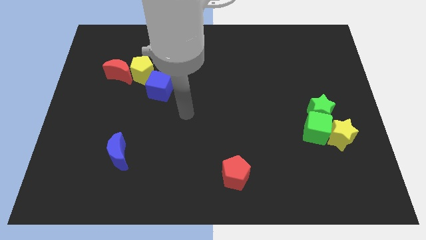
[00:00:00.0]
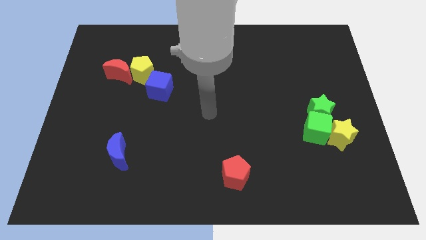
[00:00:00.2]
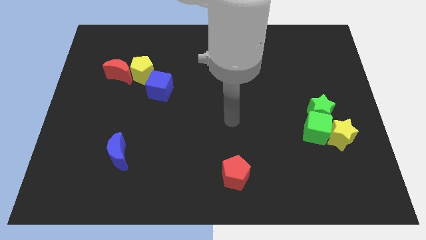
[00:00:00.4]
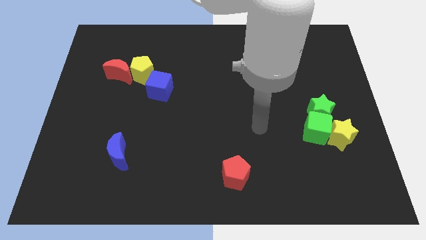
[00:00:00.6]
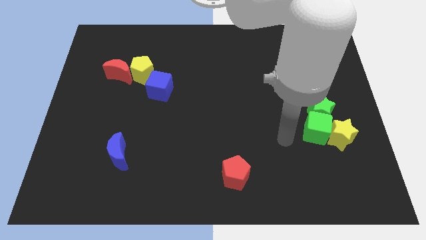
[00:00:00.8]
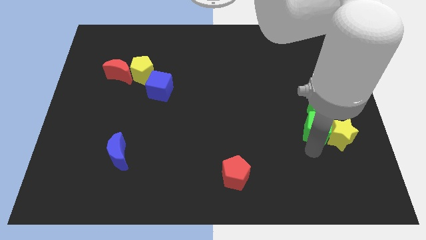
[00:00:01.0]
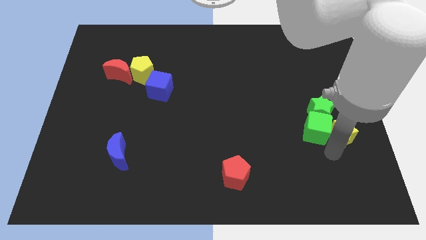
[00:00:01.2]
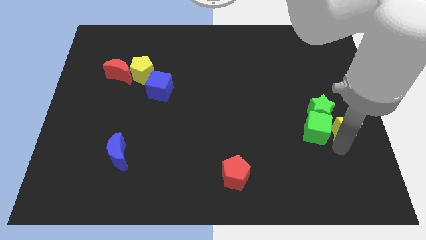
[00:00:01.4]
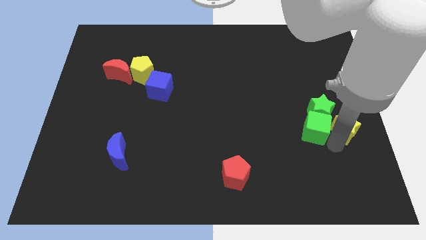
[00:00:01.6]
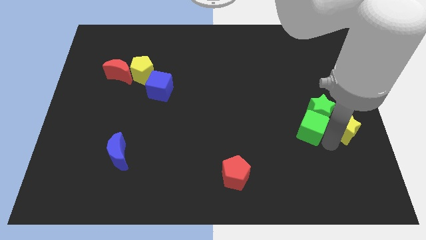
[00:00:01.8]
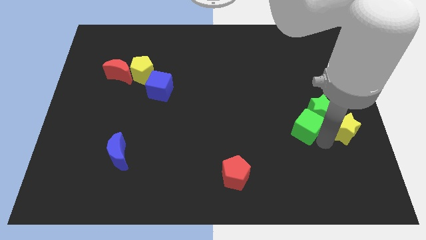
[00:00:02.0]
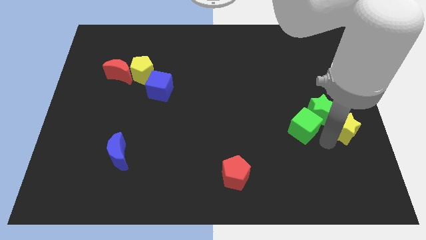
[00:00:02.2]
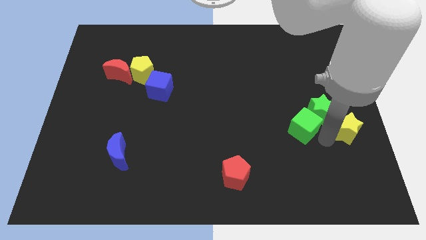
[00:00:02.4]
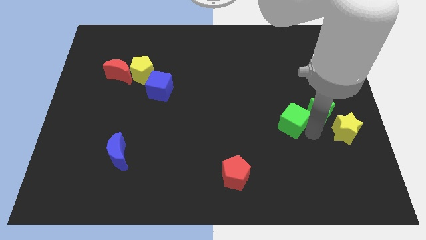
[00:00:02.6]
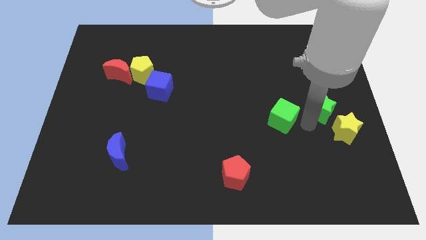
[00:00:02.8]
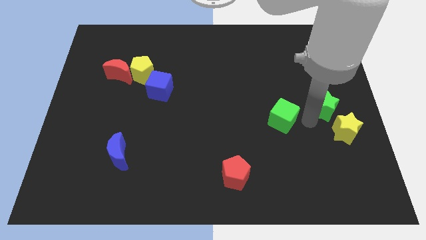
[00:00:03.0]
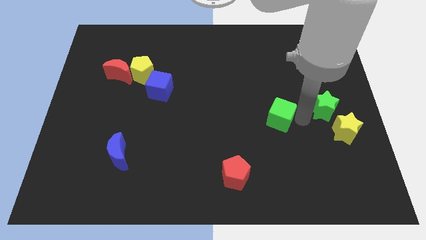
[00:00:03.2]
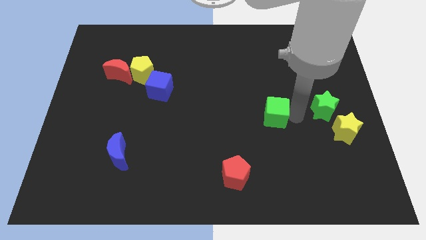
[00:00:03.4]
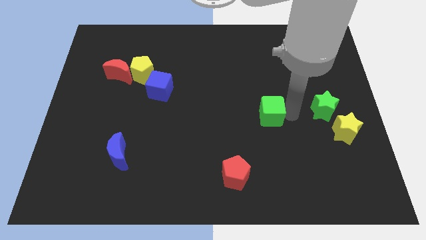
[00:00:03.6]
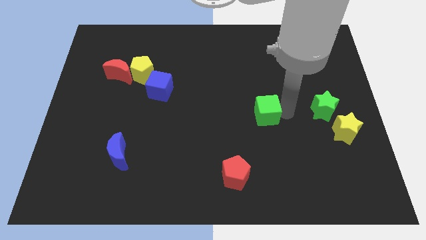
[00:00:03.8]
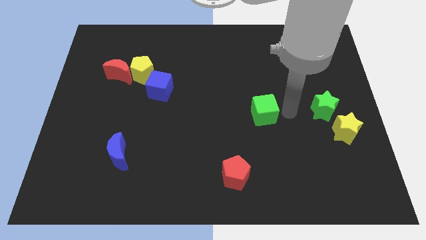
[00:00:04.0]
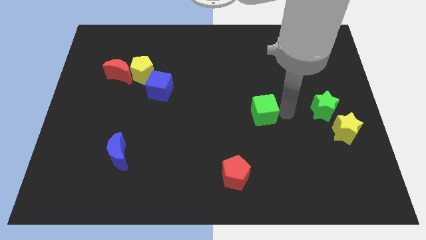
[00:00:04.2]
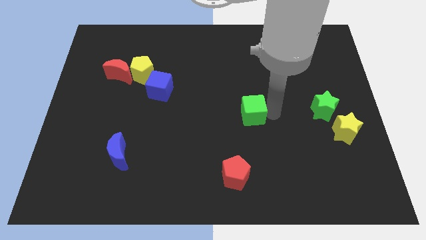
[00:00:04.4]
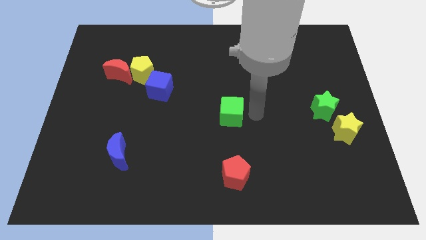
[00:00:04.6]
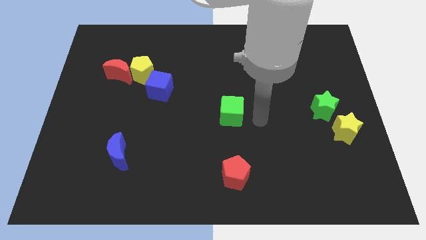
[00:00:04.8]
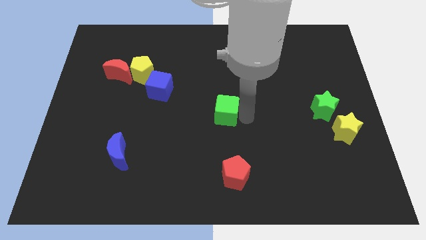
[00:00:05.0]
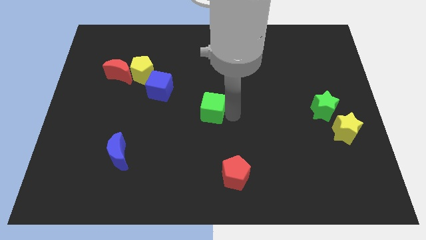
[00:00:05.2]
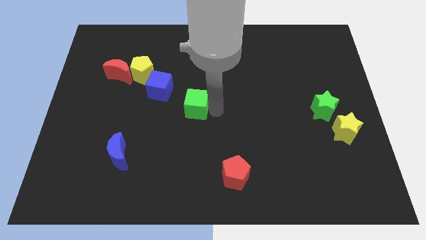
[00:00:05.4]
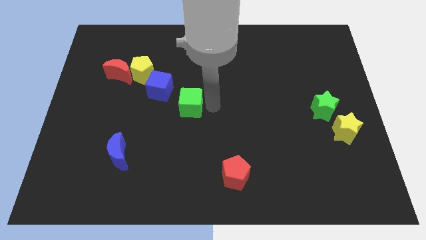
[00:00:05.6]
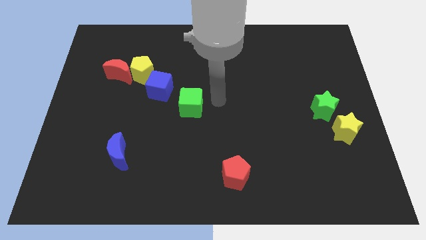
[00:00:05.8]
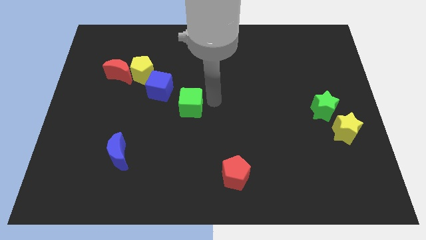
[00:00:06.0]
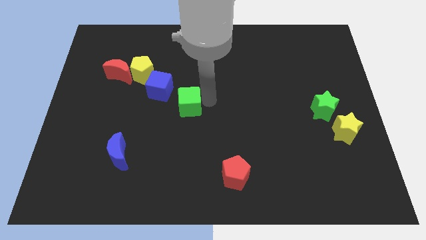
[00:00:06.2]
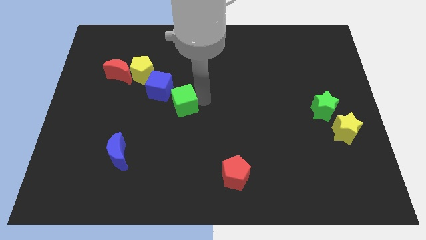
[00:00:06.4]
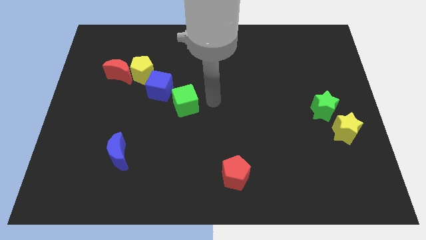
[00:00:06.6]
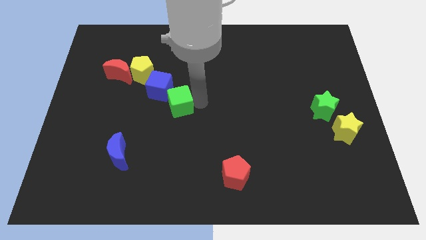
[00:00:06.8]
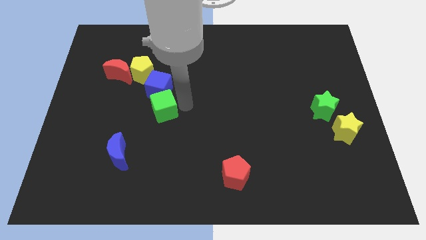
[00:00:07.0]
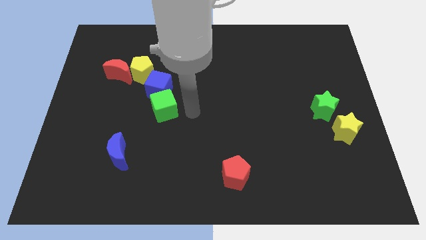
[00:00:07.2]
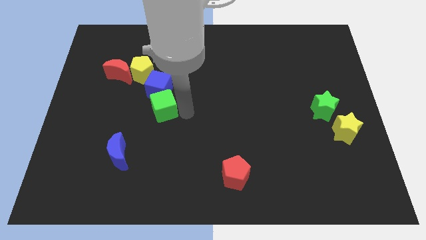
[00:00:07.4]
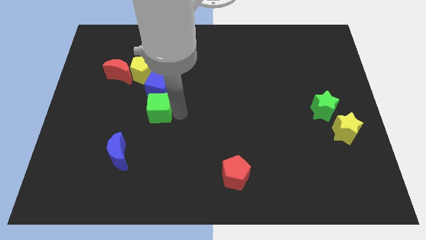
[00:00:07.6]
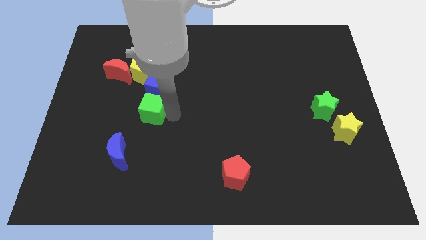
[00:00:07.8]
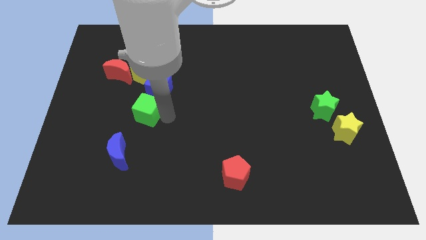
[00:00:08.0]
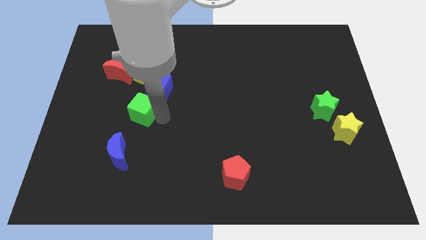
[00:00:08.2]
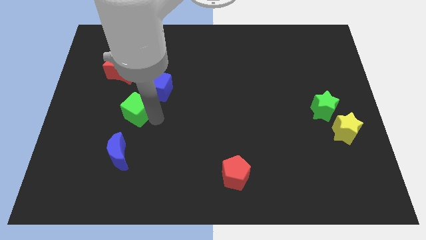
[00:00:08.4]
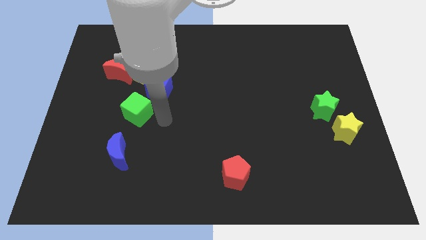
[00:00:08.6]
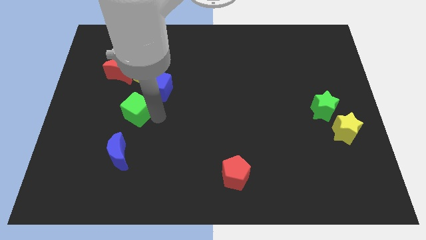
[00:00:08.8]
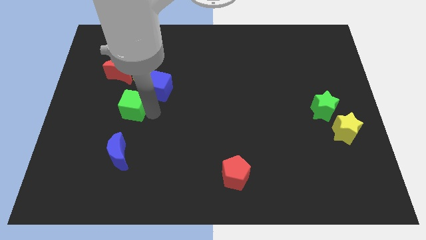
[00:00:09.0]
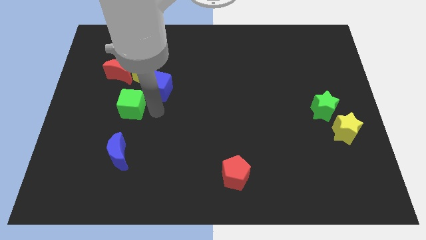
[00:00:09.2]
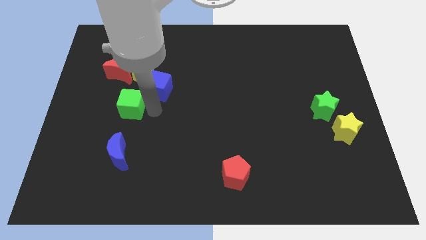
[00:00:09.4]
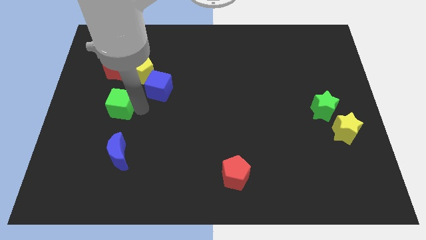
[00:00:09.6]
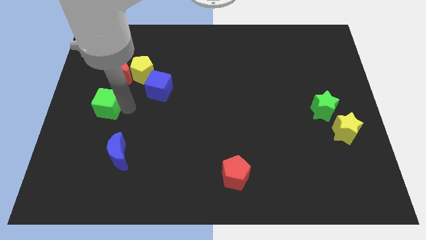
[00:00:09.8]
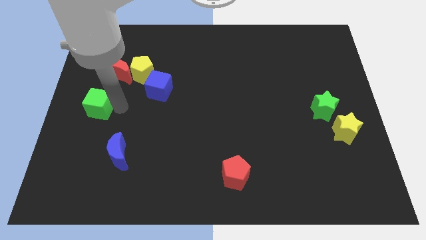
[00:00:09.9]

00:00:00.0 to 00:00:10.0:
move the green cube to the center left

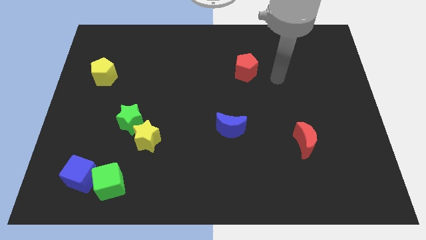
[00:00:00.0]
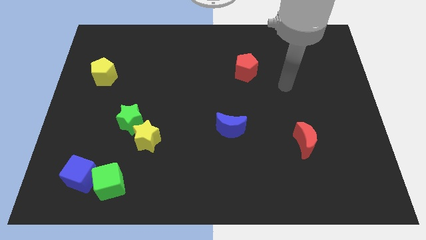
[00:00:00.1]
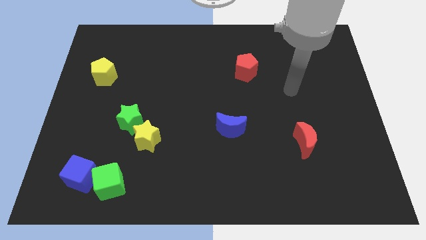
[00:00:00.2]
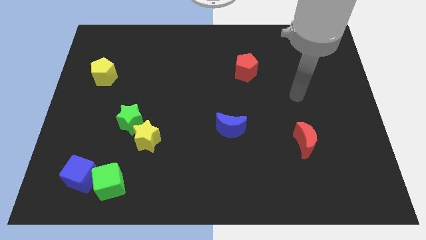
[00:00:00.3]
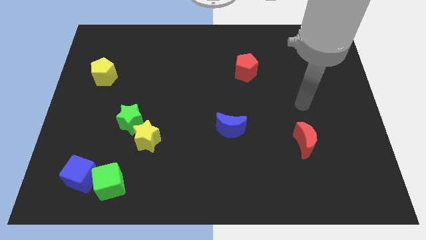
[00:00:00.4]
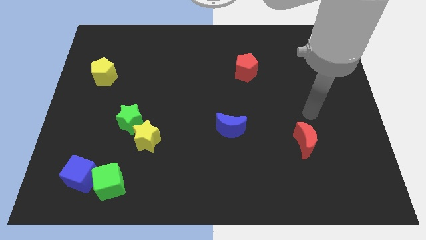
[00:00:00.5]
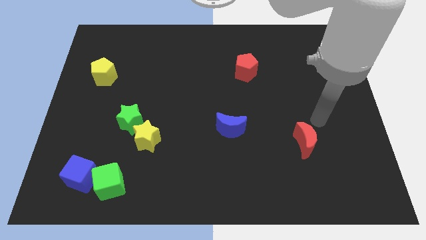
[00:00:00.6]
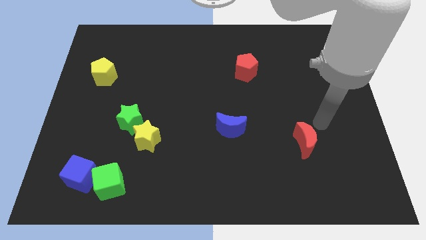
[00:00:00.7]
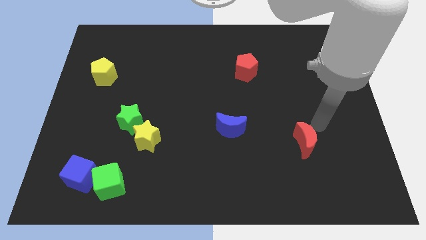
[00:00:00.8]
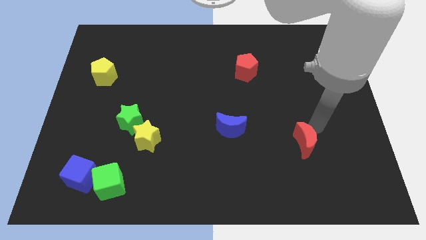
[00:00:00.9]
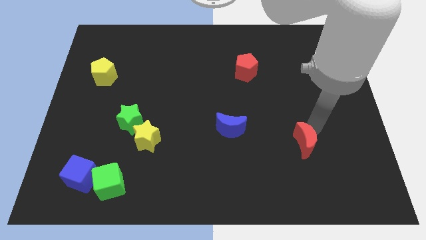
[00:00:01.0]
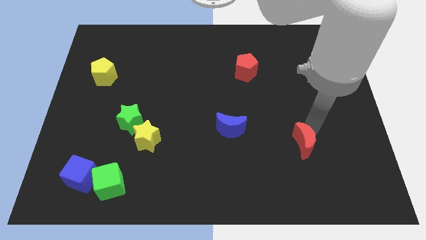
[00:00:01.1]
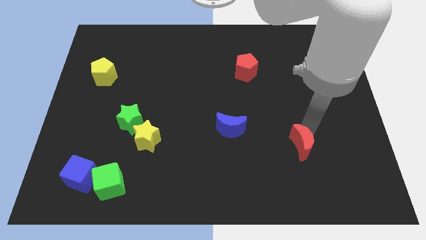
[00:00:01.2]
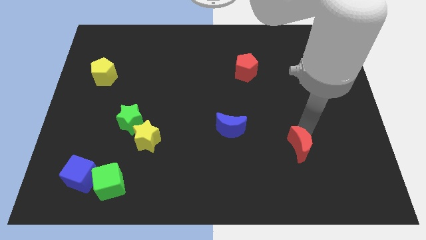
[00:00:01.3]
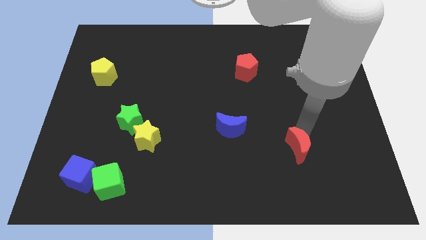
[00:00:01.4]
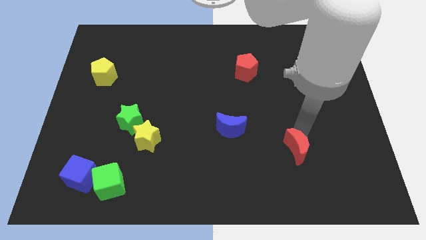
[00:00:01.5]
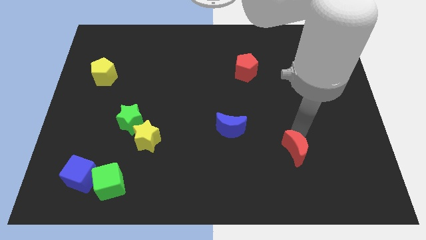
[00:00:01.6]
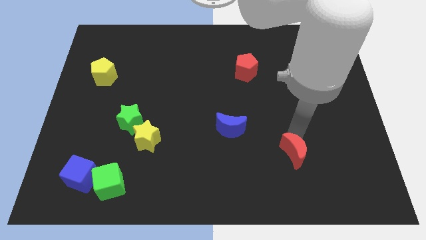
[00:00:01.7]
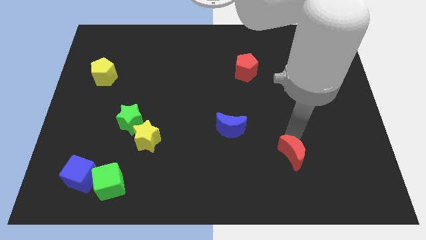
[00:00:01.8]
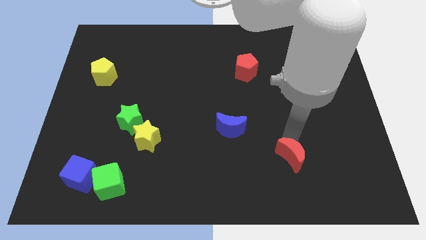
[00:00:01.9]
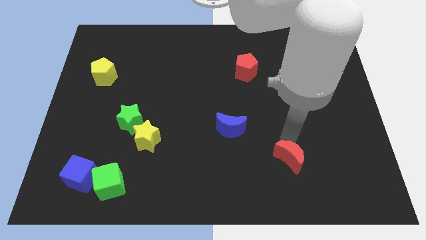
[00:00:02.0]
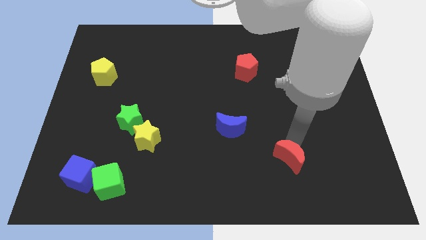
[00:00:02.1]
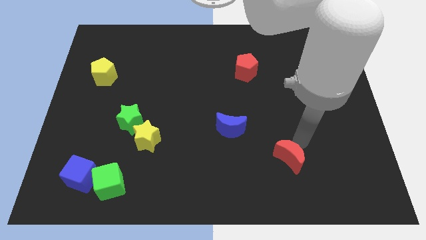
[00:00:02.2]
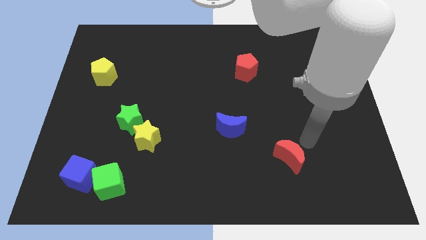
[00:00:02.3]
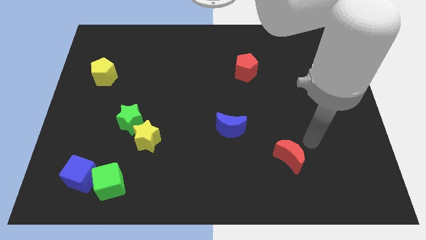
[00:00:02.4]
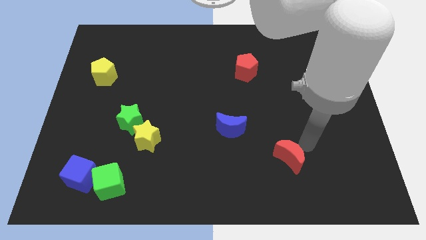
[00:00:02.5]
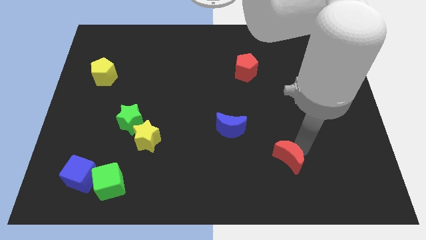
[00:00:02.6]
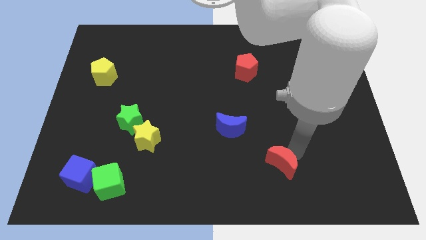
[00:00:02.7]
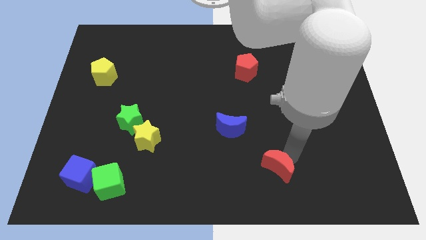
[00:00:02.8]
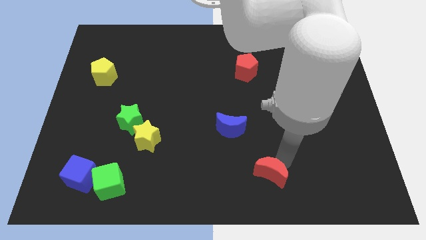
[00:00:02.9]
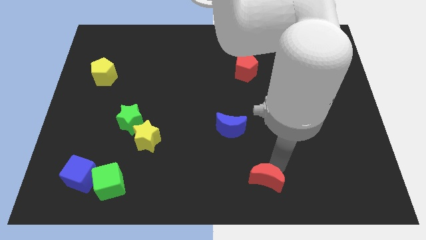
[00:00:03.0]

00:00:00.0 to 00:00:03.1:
move the red moon to the bottom side
